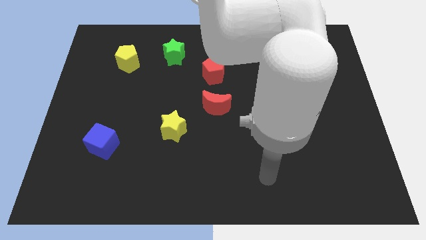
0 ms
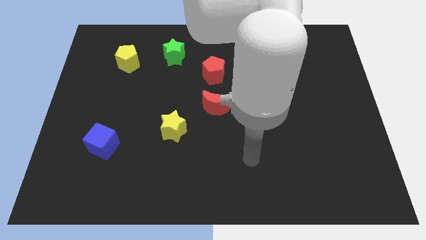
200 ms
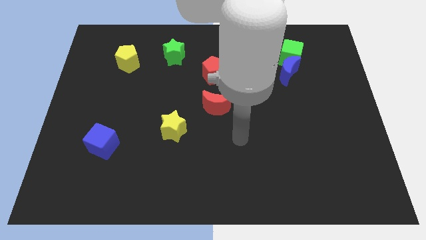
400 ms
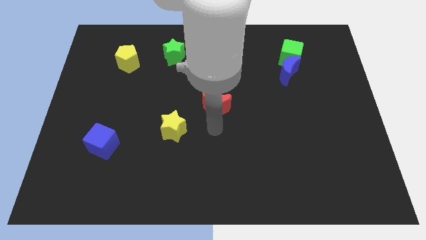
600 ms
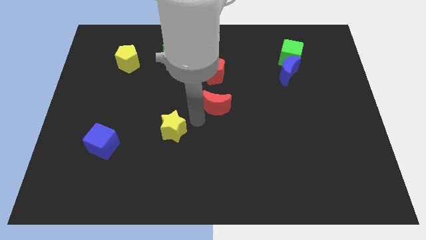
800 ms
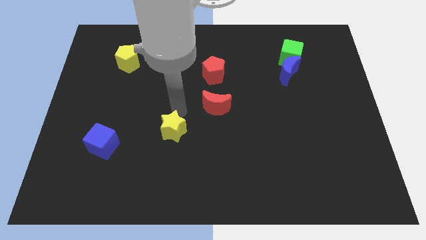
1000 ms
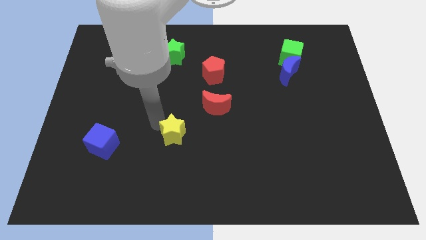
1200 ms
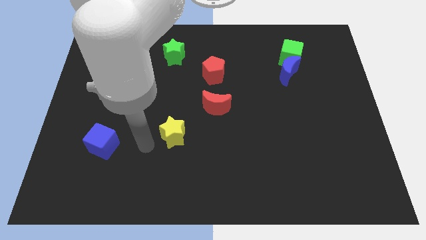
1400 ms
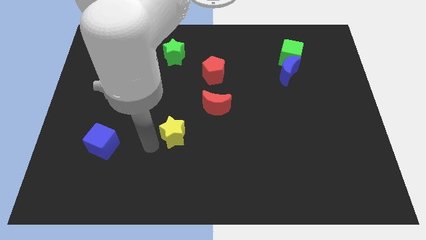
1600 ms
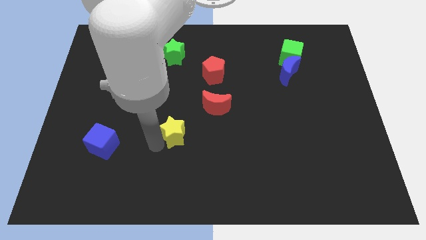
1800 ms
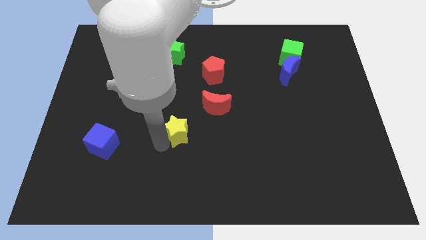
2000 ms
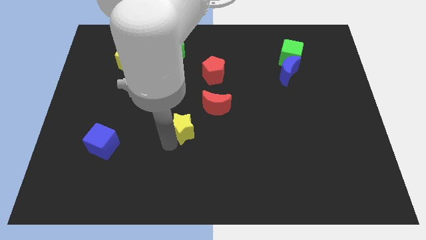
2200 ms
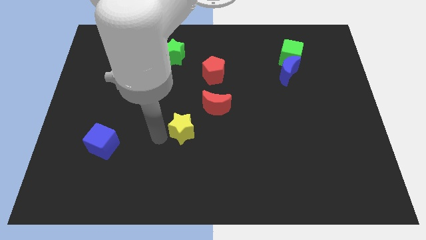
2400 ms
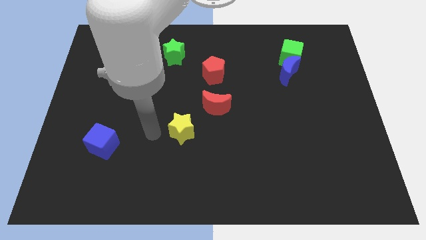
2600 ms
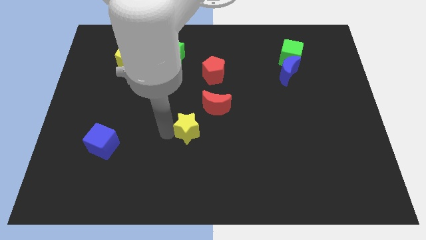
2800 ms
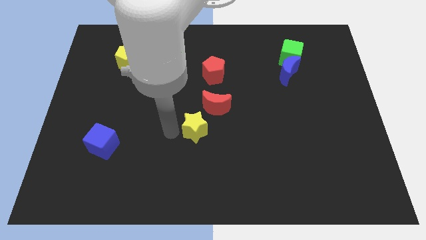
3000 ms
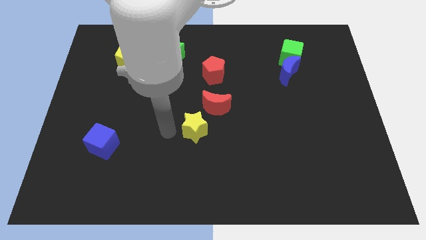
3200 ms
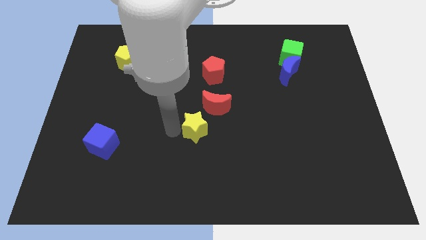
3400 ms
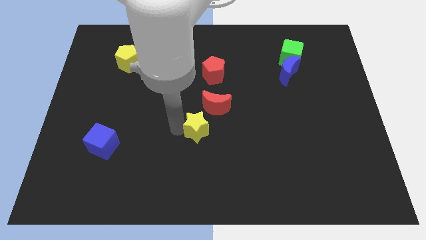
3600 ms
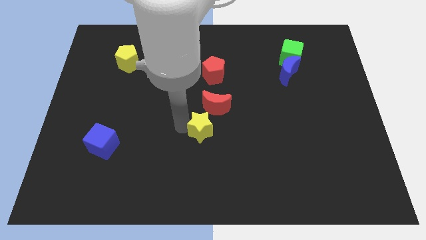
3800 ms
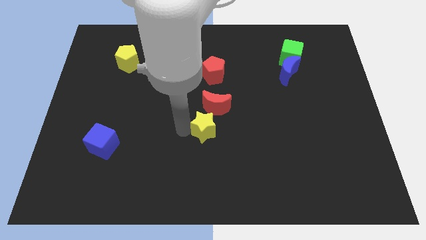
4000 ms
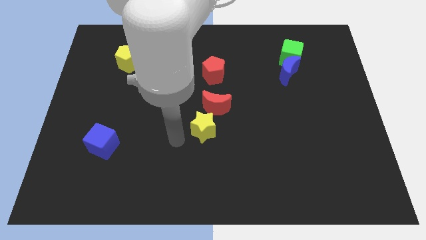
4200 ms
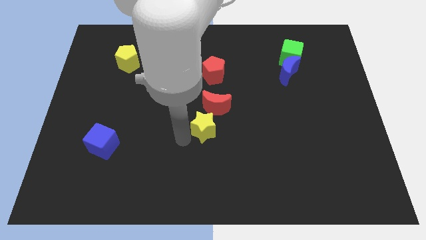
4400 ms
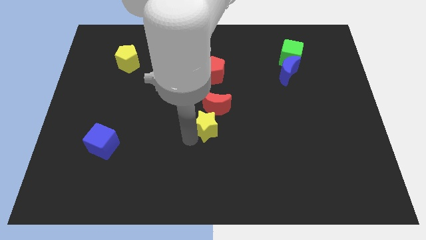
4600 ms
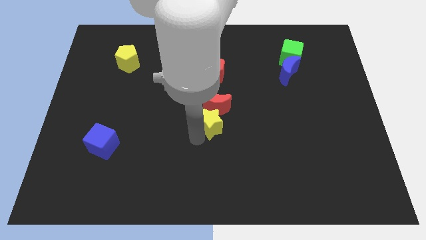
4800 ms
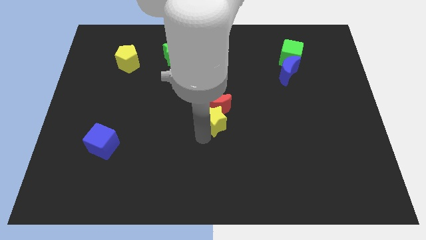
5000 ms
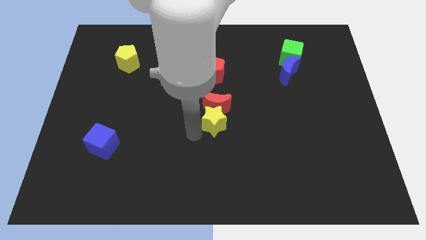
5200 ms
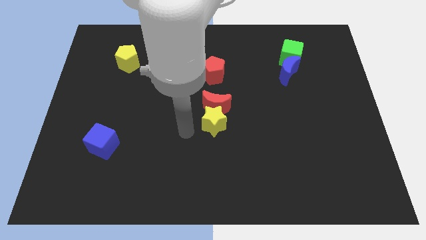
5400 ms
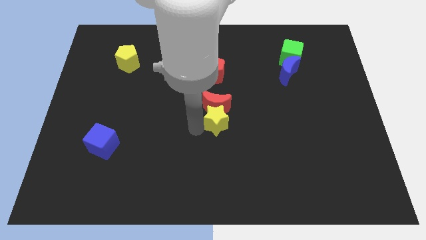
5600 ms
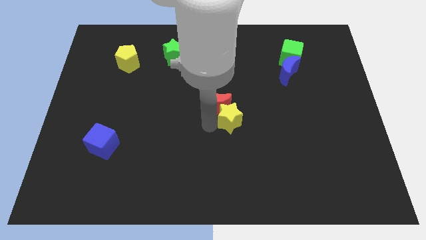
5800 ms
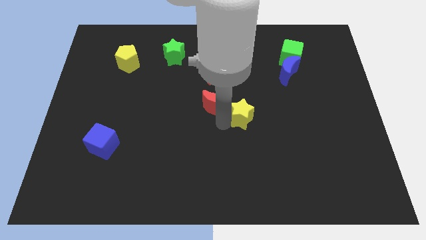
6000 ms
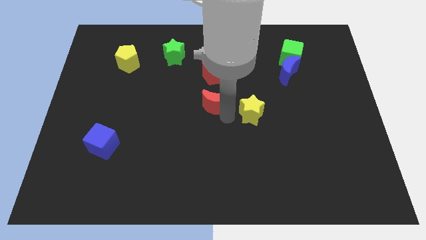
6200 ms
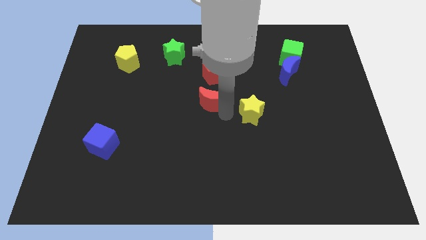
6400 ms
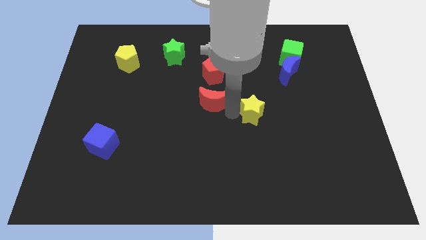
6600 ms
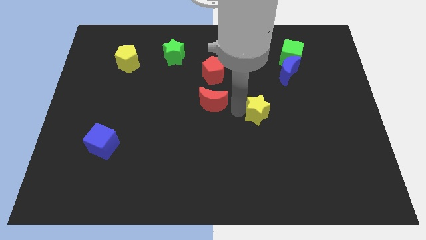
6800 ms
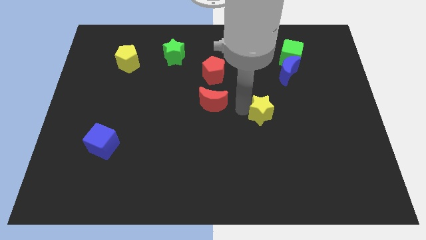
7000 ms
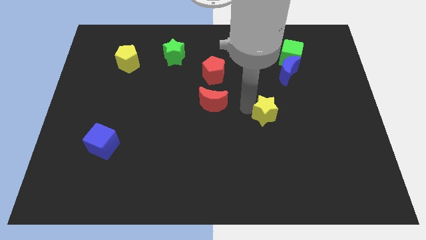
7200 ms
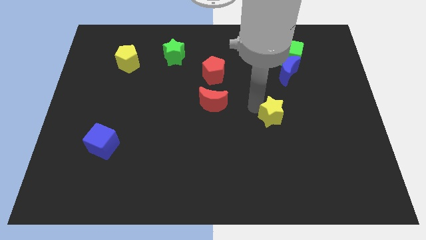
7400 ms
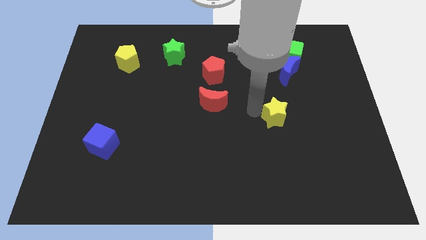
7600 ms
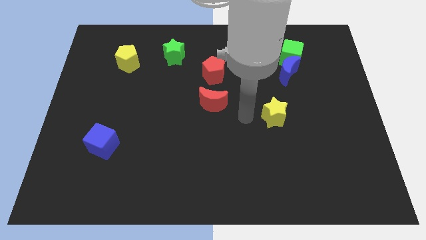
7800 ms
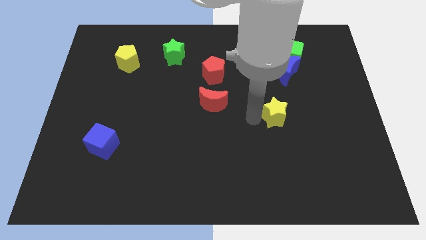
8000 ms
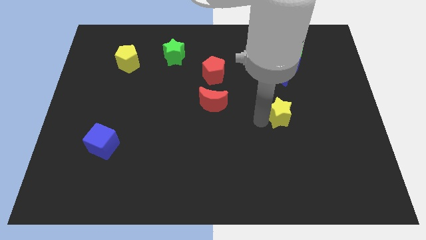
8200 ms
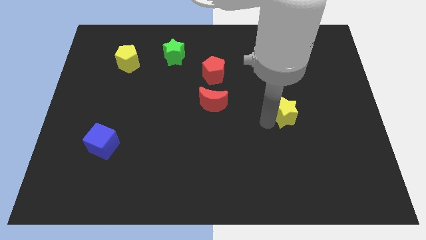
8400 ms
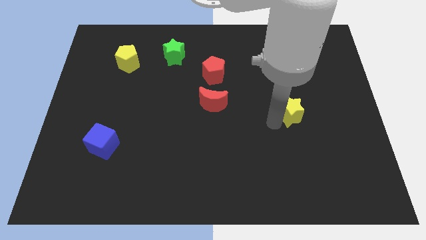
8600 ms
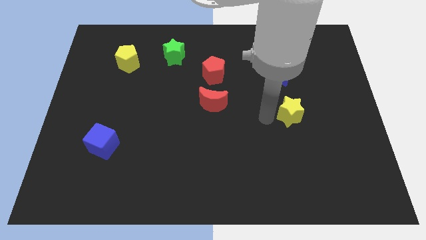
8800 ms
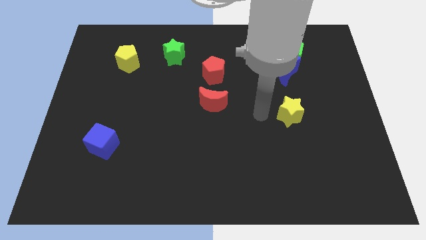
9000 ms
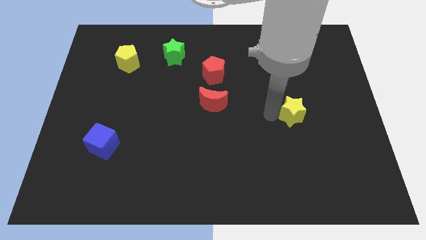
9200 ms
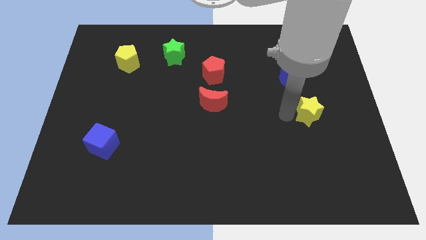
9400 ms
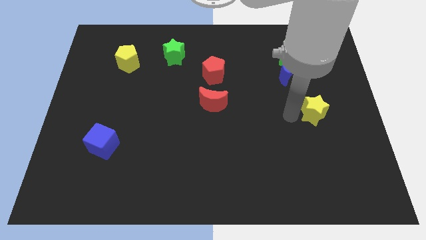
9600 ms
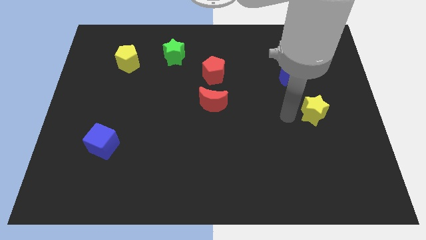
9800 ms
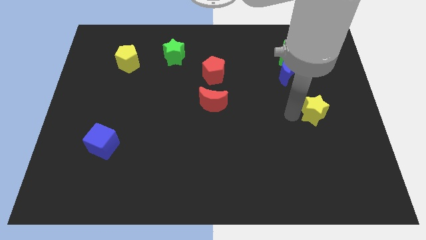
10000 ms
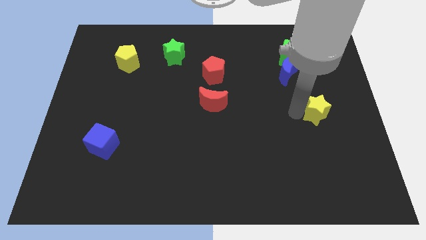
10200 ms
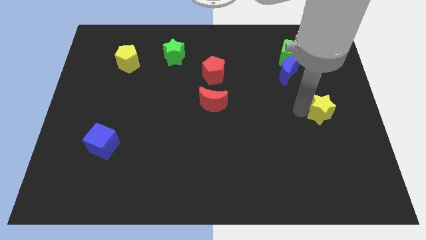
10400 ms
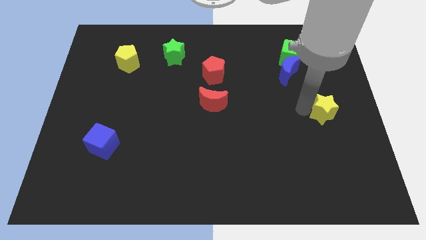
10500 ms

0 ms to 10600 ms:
slide the yellow star to the center right

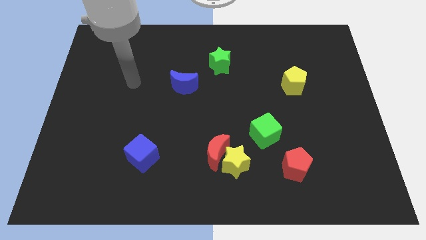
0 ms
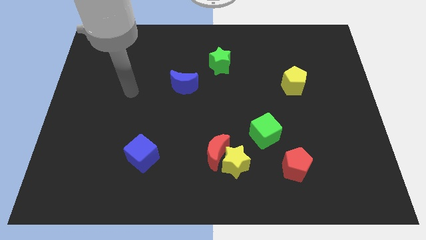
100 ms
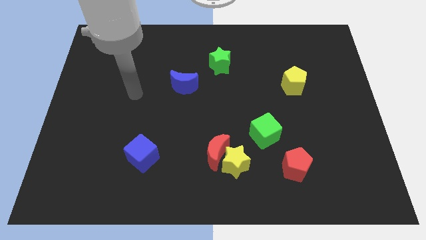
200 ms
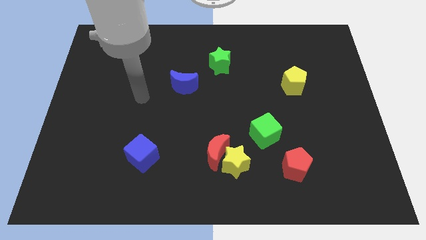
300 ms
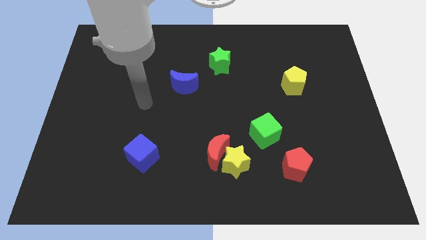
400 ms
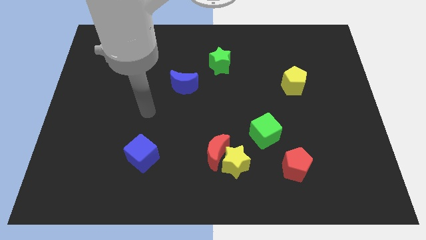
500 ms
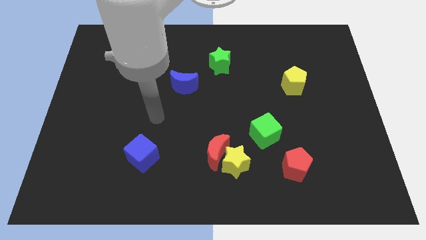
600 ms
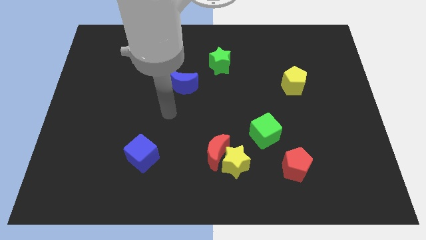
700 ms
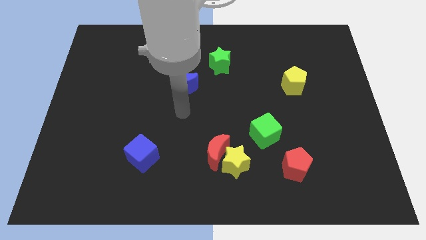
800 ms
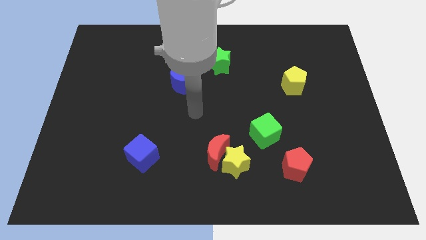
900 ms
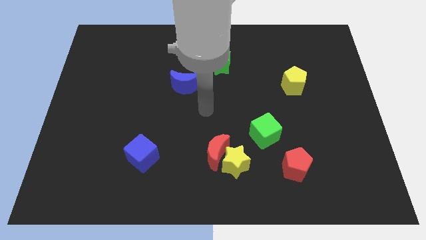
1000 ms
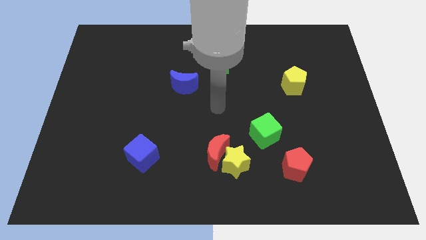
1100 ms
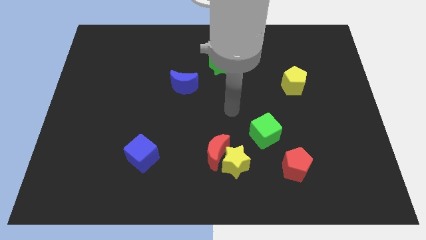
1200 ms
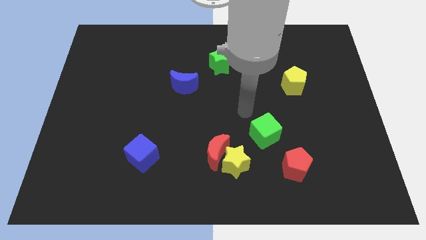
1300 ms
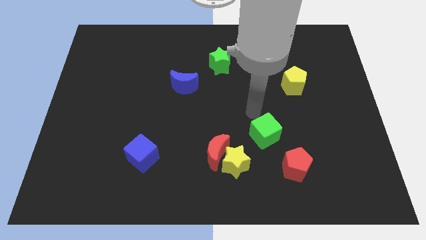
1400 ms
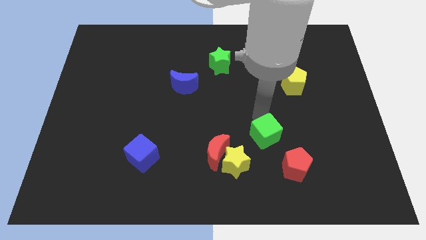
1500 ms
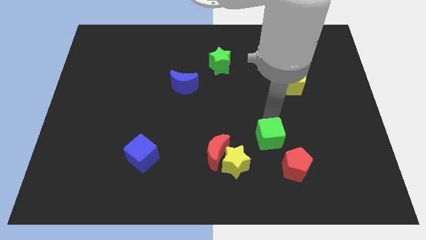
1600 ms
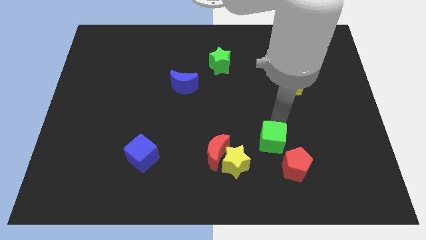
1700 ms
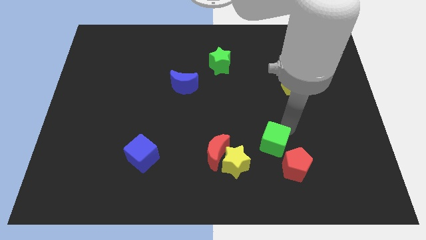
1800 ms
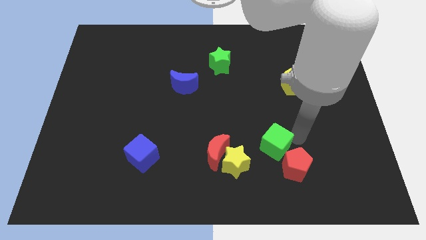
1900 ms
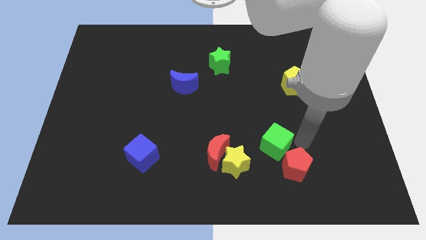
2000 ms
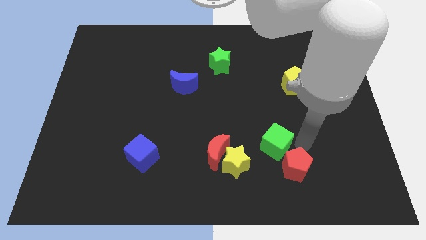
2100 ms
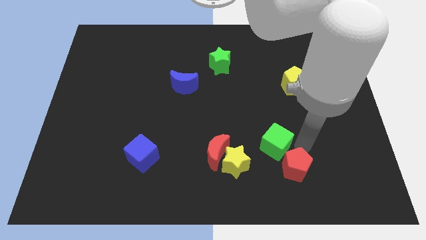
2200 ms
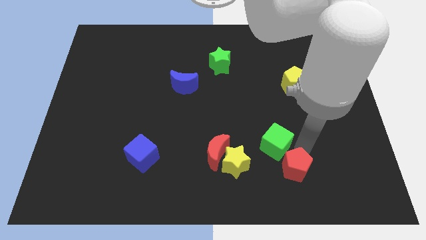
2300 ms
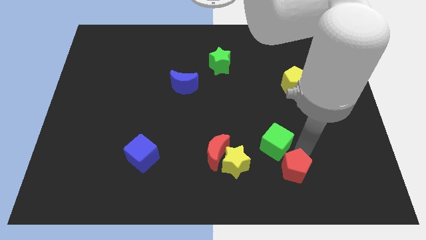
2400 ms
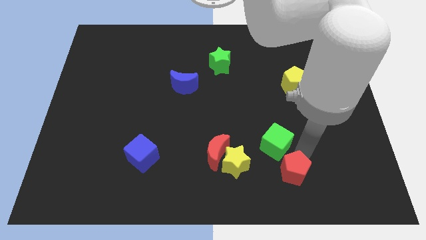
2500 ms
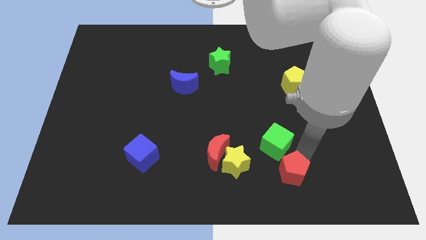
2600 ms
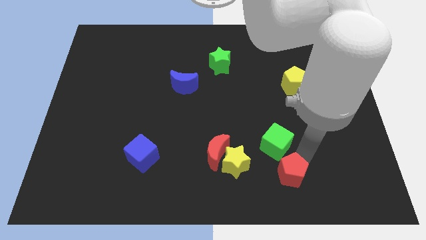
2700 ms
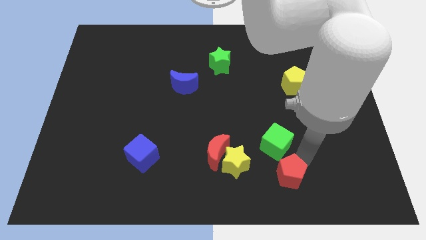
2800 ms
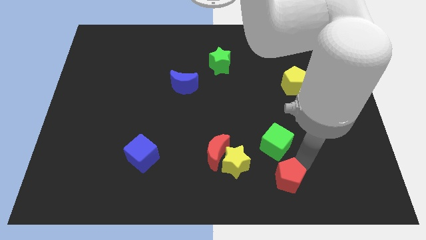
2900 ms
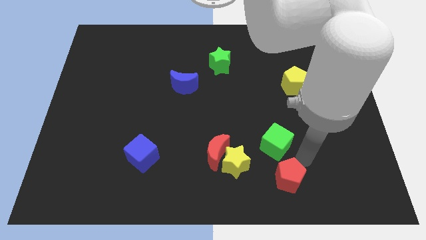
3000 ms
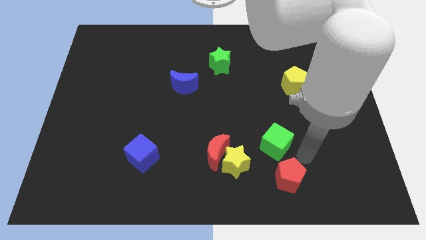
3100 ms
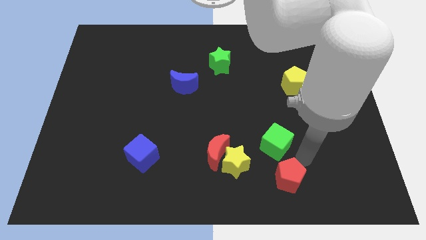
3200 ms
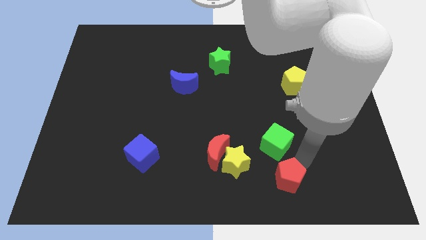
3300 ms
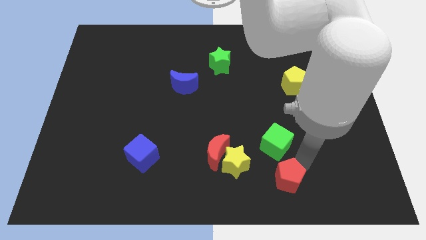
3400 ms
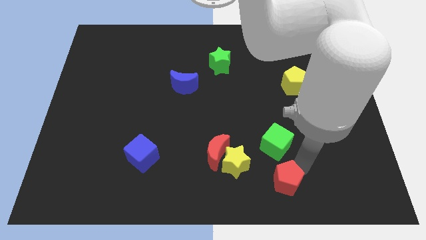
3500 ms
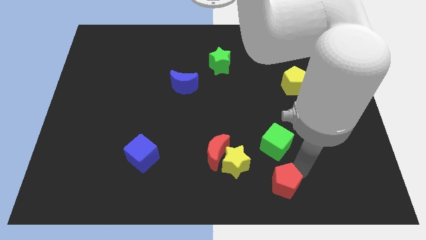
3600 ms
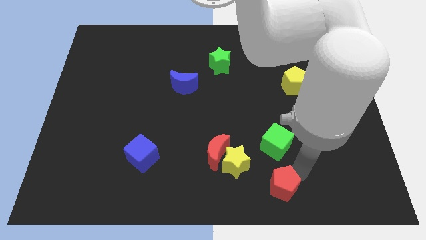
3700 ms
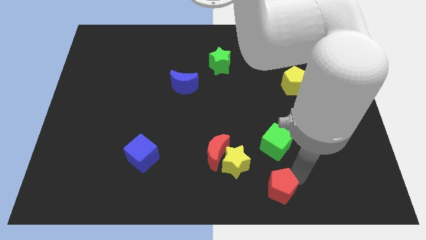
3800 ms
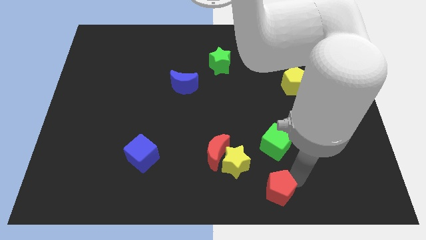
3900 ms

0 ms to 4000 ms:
move the red pentagon to the bottom
